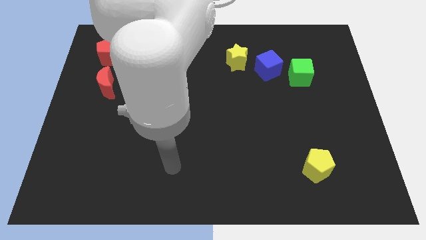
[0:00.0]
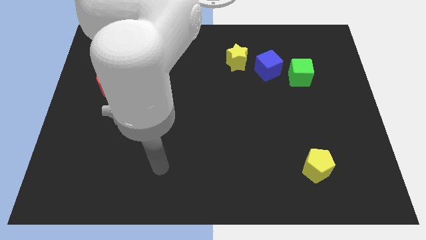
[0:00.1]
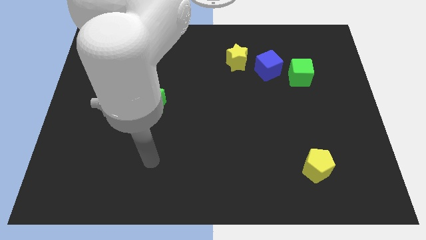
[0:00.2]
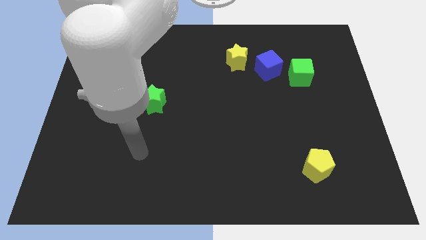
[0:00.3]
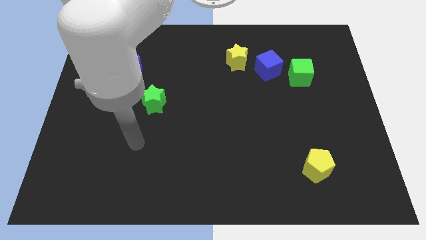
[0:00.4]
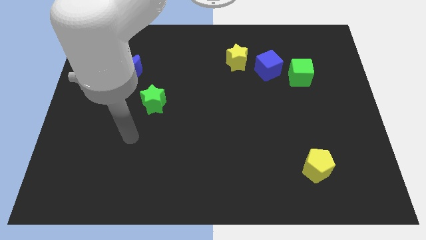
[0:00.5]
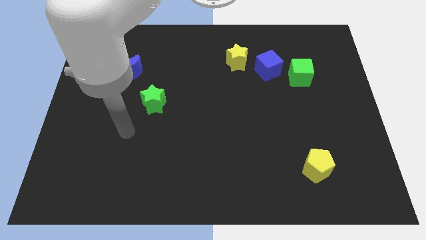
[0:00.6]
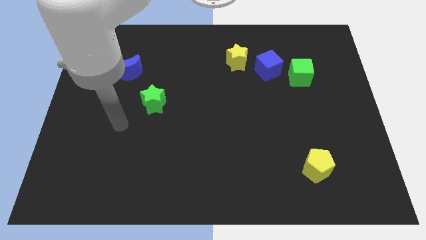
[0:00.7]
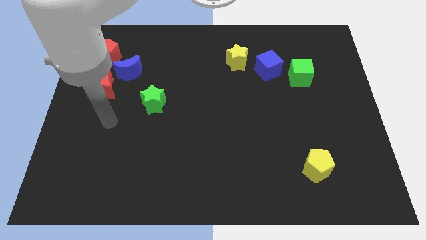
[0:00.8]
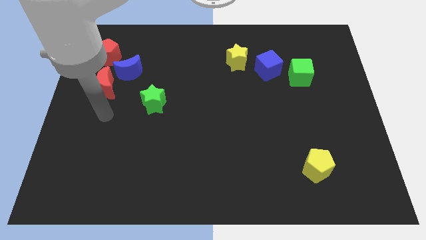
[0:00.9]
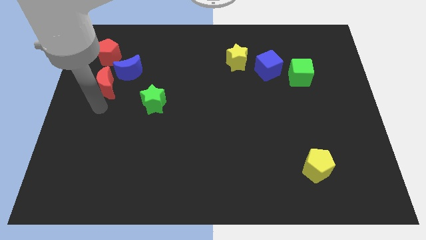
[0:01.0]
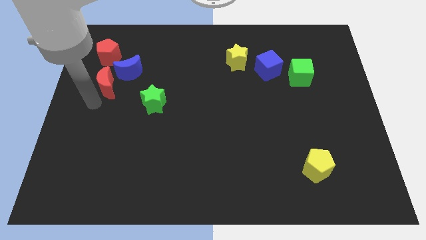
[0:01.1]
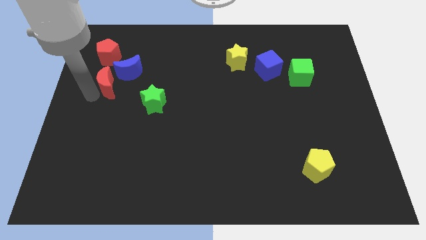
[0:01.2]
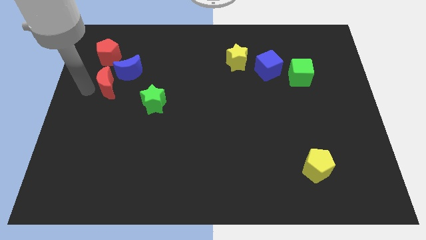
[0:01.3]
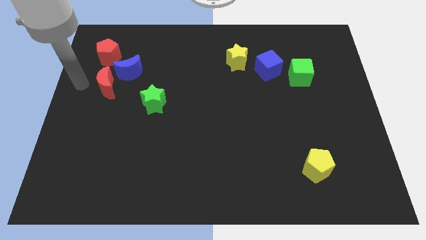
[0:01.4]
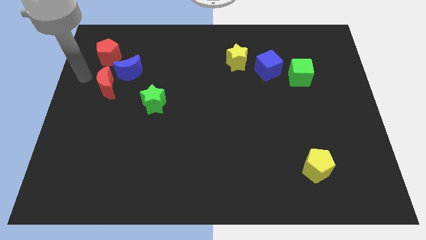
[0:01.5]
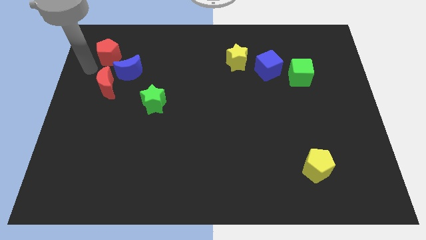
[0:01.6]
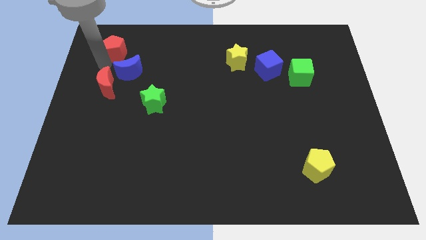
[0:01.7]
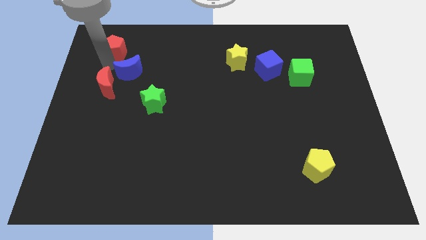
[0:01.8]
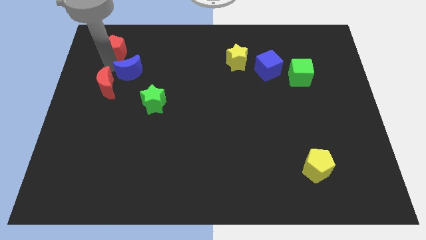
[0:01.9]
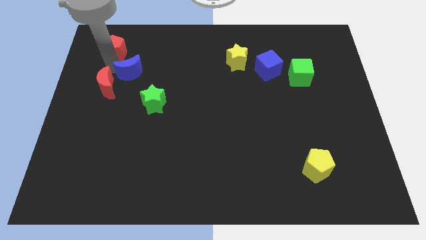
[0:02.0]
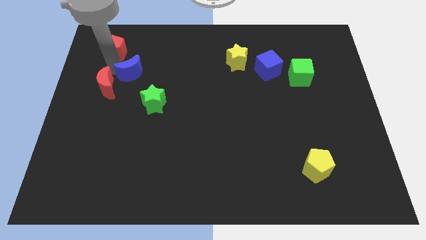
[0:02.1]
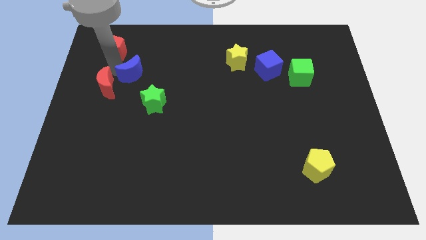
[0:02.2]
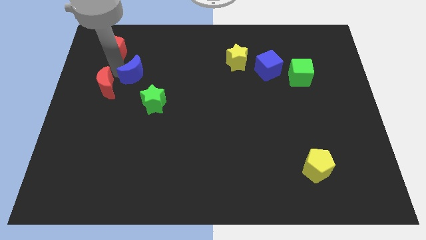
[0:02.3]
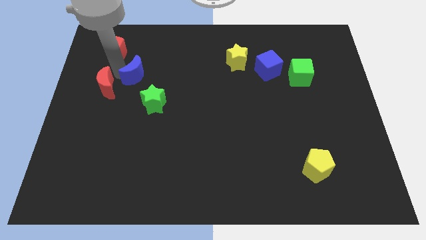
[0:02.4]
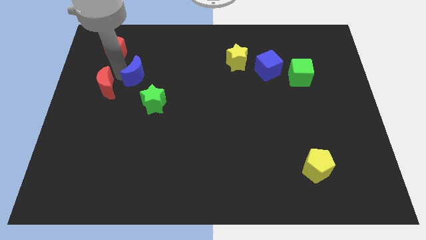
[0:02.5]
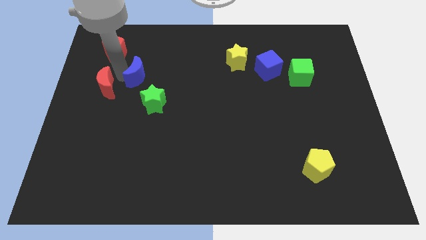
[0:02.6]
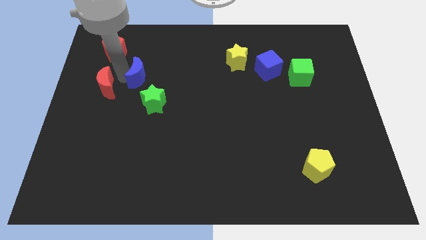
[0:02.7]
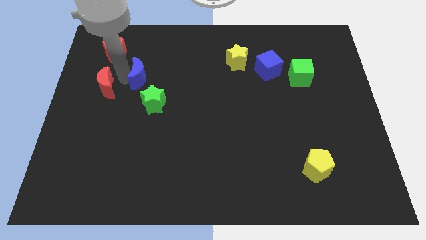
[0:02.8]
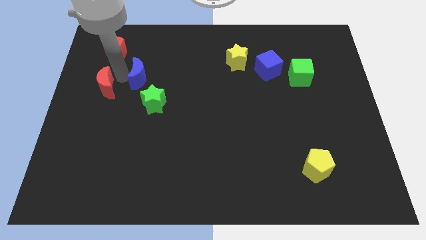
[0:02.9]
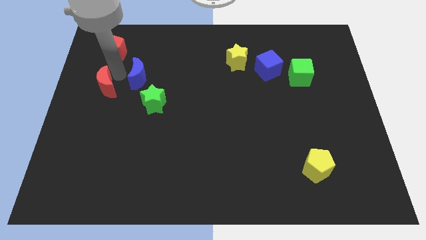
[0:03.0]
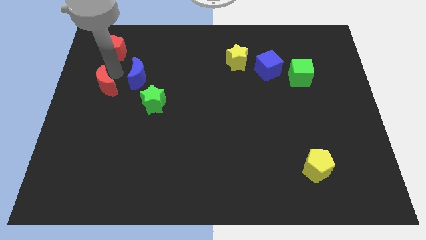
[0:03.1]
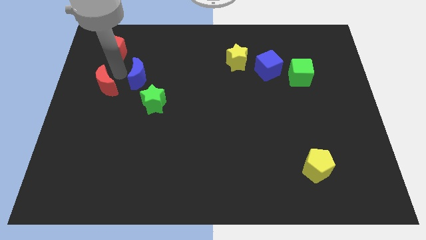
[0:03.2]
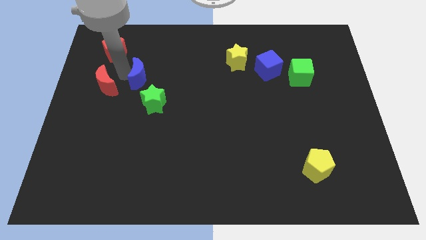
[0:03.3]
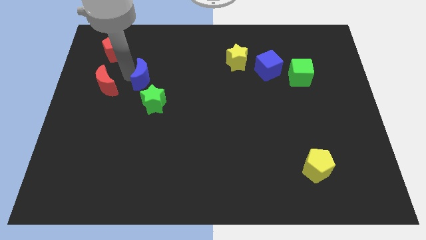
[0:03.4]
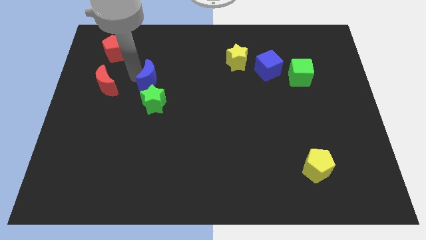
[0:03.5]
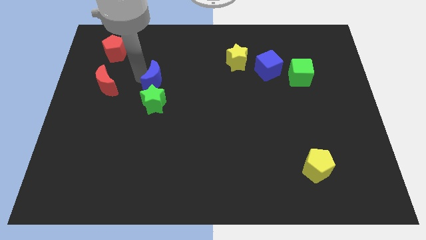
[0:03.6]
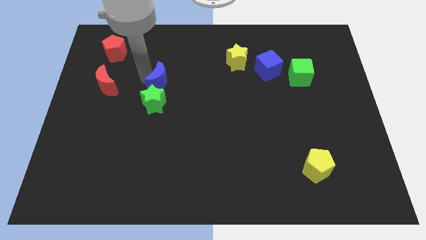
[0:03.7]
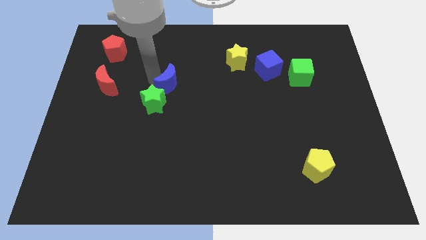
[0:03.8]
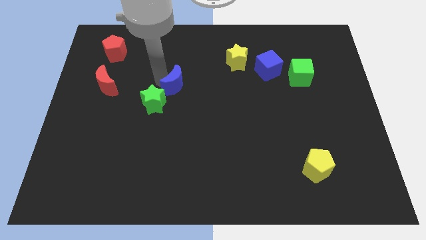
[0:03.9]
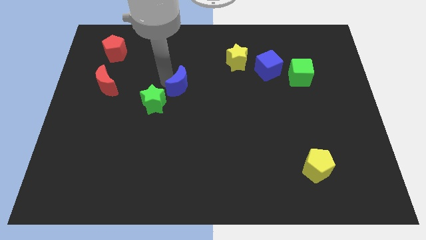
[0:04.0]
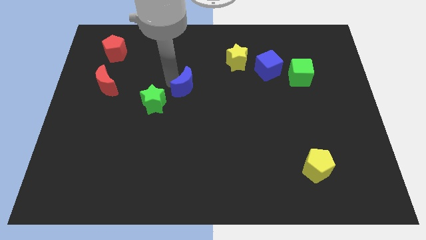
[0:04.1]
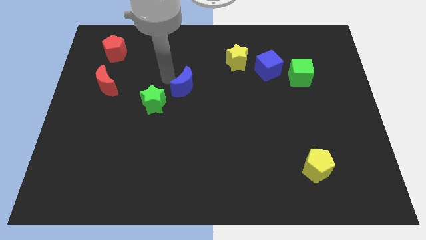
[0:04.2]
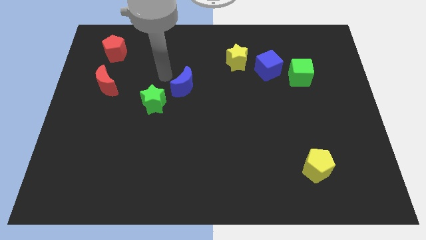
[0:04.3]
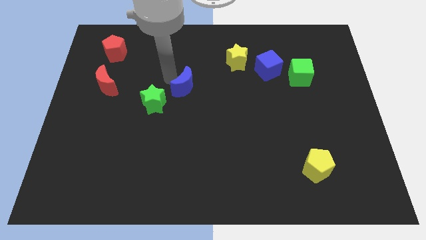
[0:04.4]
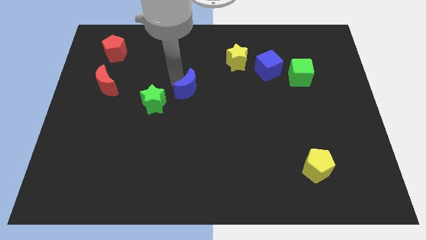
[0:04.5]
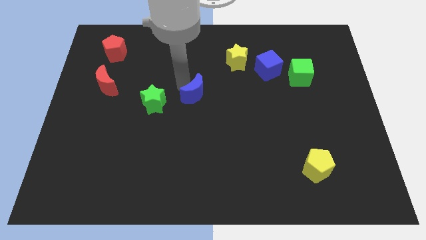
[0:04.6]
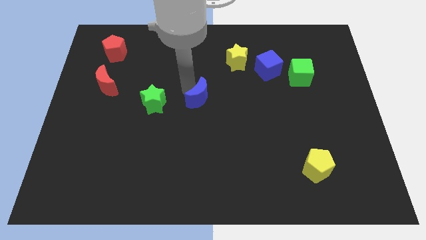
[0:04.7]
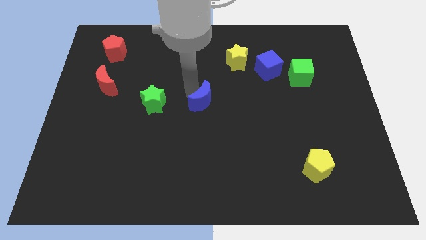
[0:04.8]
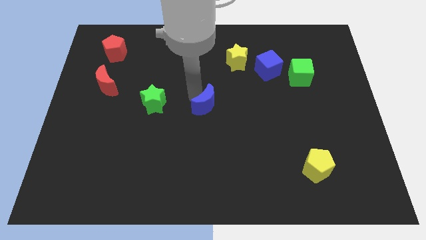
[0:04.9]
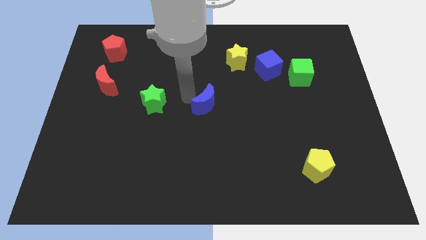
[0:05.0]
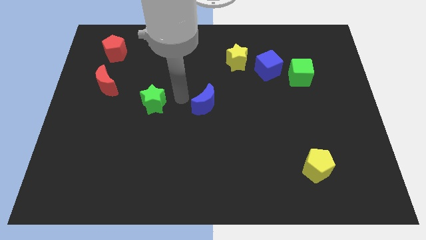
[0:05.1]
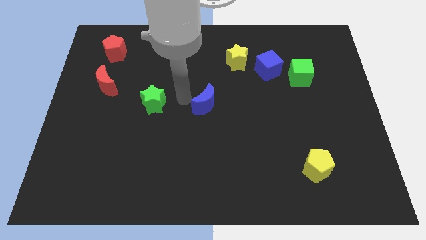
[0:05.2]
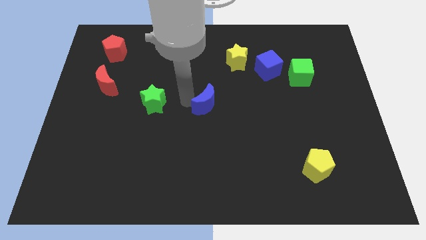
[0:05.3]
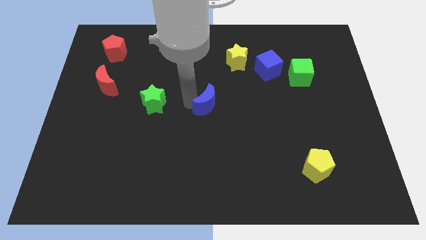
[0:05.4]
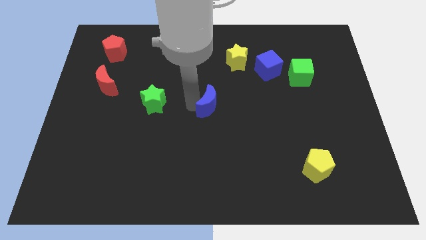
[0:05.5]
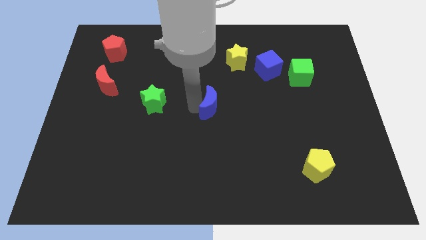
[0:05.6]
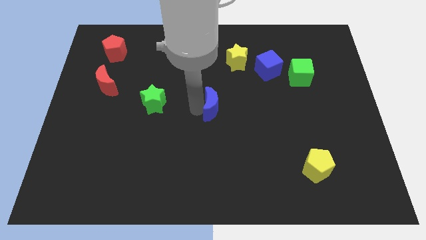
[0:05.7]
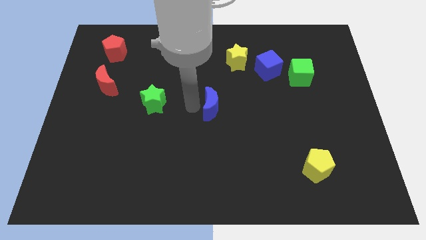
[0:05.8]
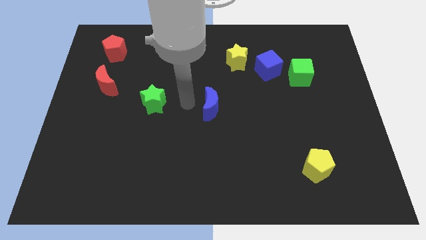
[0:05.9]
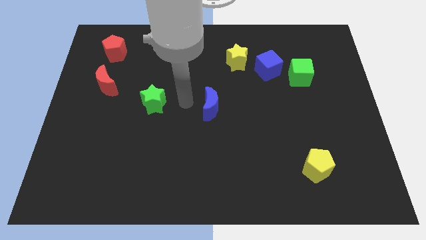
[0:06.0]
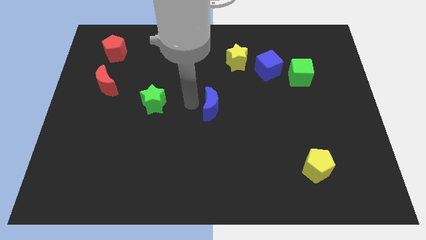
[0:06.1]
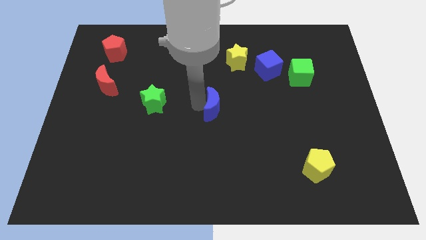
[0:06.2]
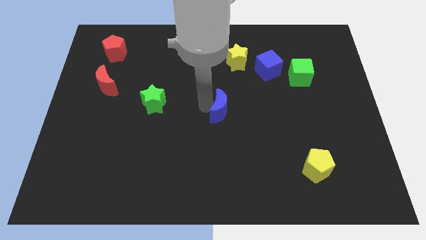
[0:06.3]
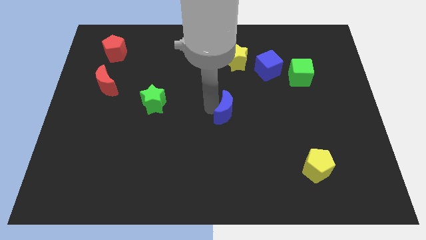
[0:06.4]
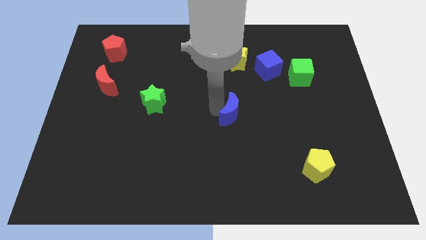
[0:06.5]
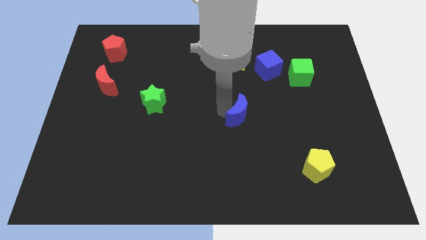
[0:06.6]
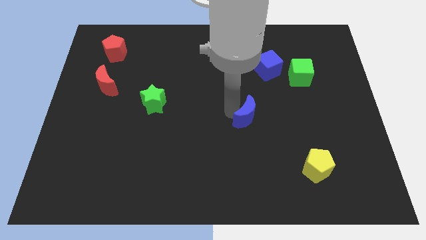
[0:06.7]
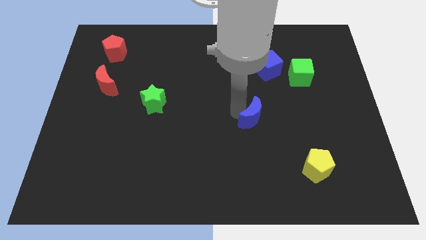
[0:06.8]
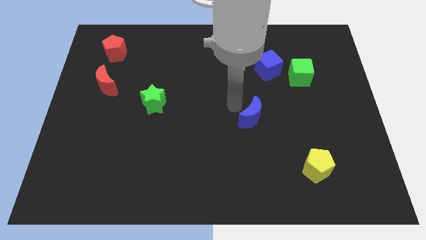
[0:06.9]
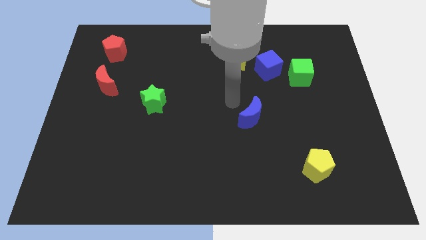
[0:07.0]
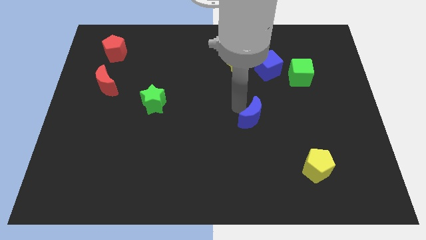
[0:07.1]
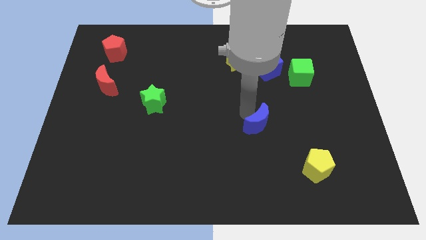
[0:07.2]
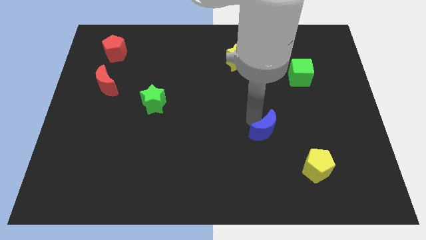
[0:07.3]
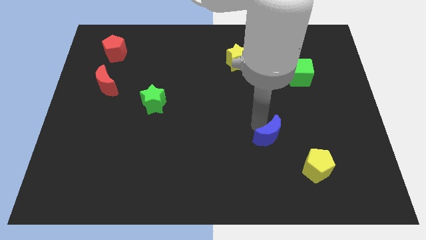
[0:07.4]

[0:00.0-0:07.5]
slide the blue moon to the top left side of the yellow pentagon

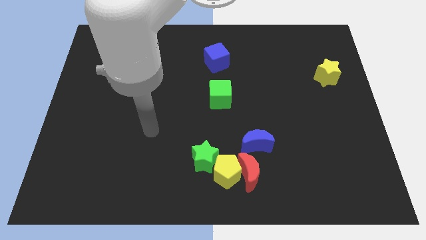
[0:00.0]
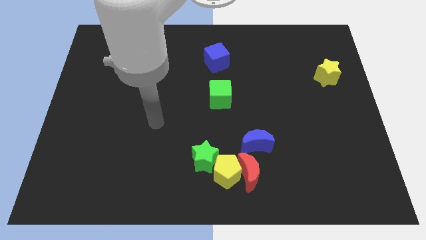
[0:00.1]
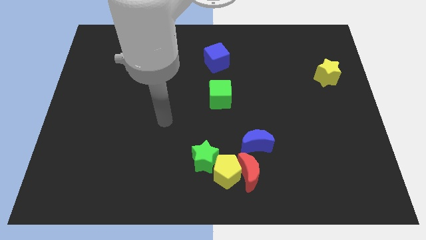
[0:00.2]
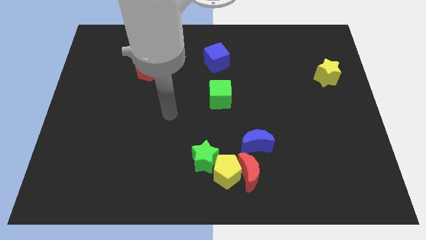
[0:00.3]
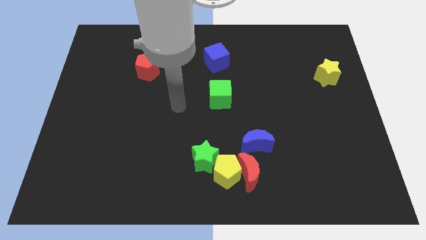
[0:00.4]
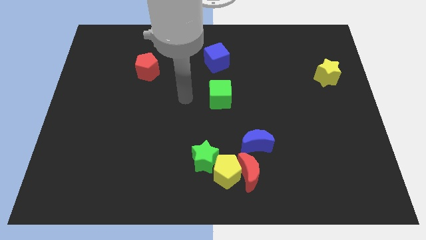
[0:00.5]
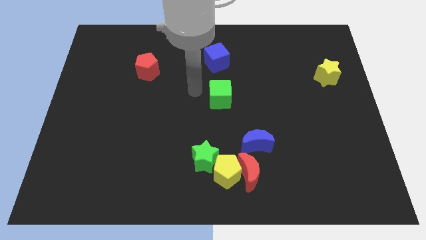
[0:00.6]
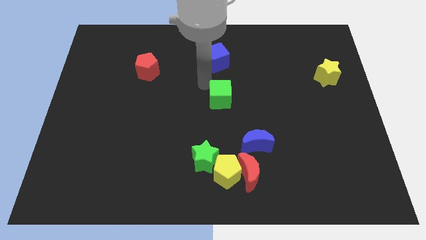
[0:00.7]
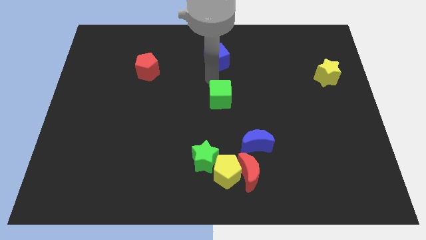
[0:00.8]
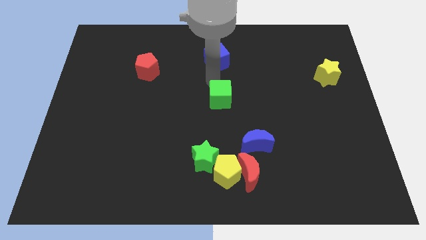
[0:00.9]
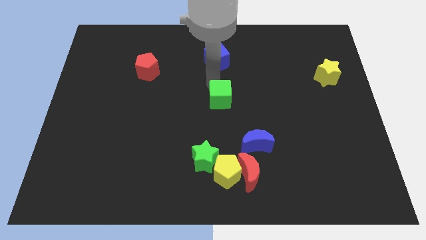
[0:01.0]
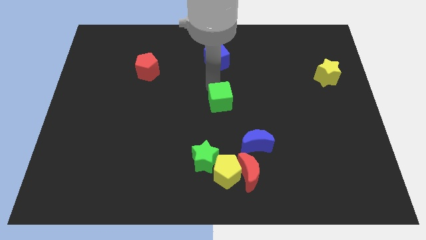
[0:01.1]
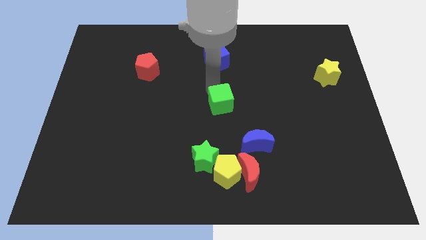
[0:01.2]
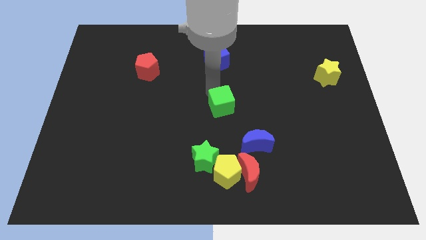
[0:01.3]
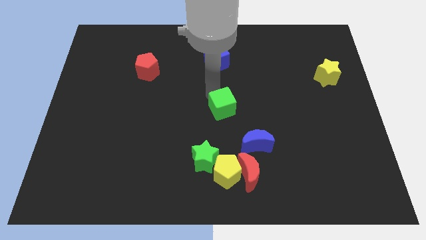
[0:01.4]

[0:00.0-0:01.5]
move the green cube to the top left of the blue moon
